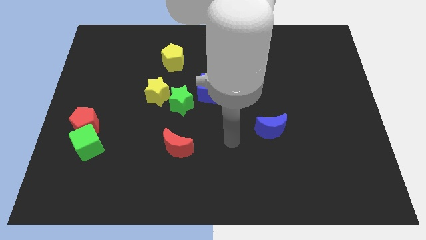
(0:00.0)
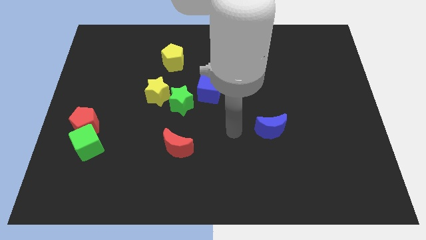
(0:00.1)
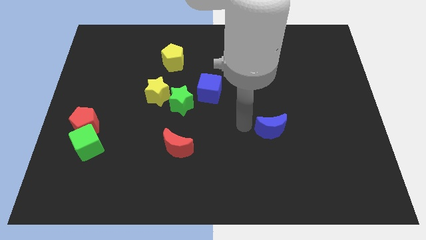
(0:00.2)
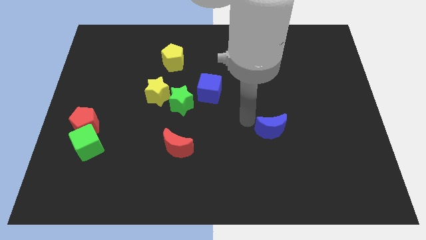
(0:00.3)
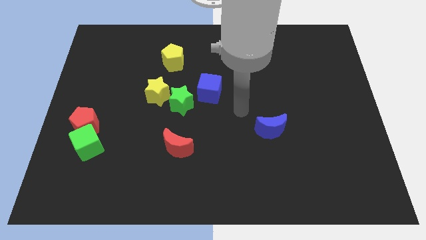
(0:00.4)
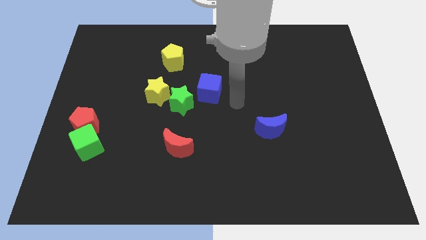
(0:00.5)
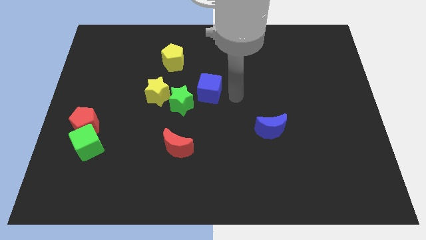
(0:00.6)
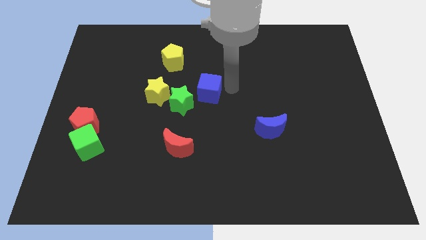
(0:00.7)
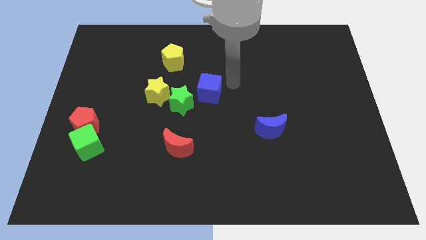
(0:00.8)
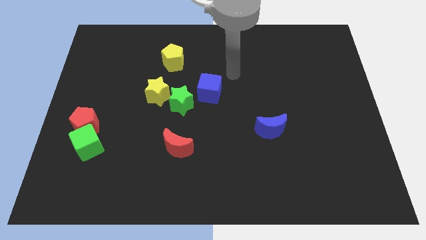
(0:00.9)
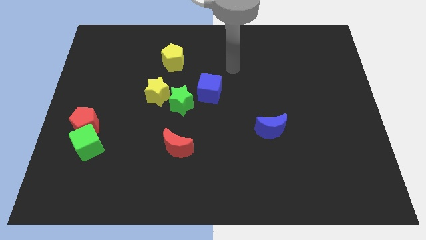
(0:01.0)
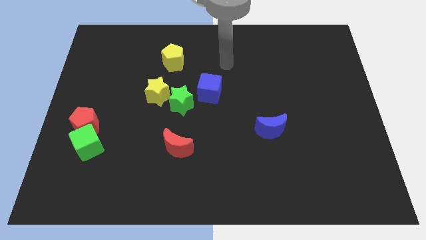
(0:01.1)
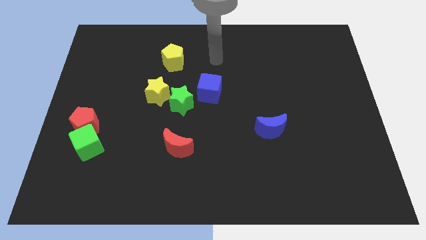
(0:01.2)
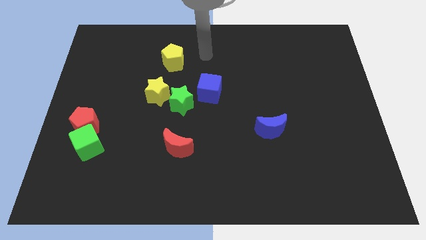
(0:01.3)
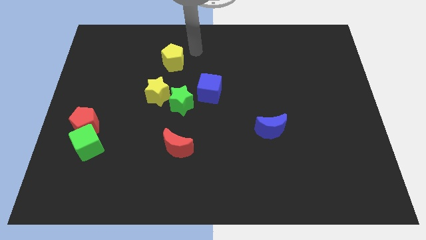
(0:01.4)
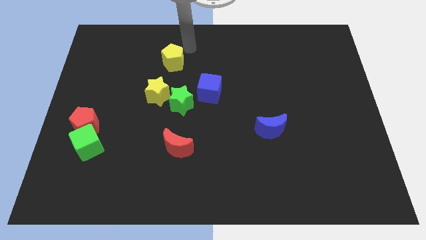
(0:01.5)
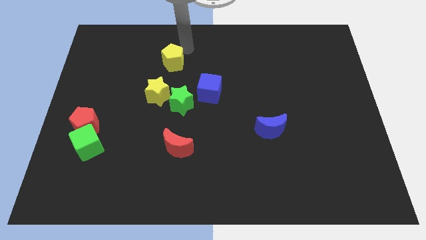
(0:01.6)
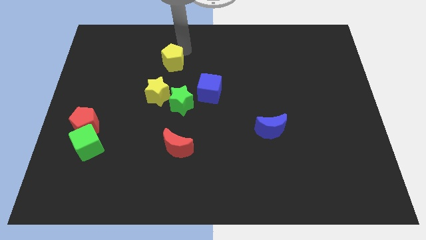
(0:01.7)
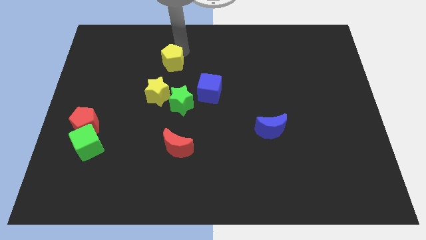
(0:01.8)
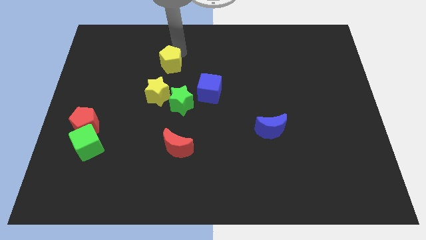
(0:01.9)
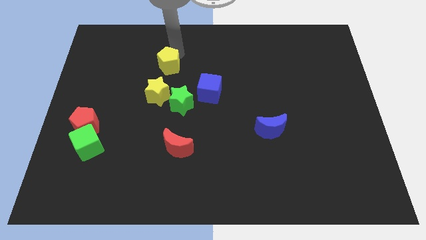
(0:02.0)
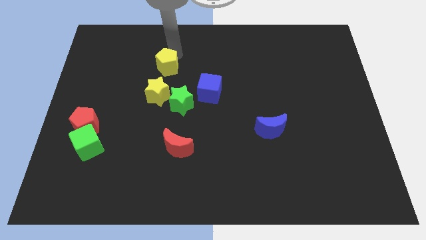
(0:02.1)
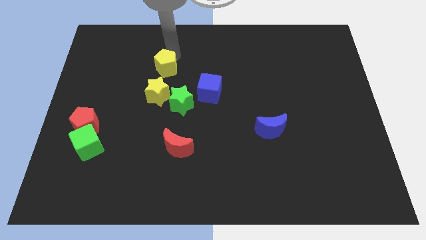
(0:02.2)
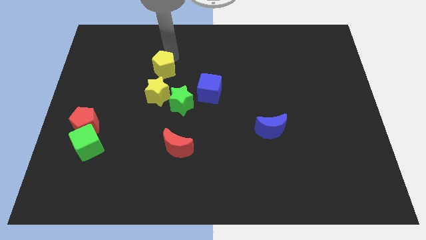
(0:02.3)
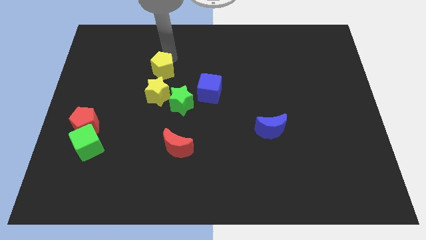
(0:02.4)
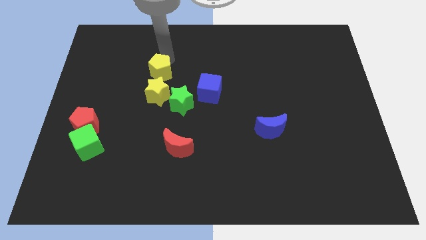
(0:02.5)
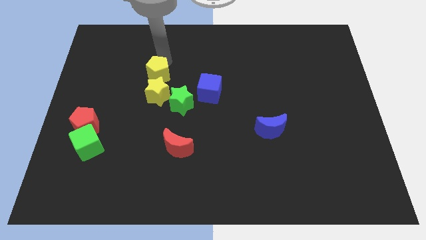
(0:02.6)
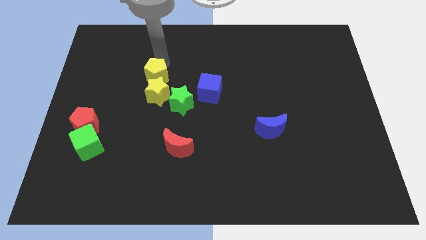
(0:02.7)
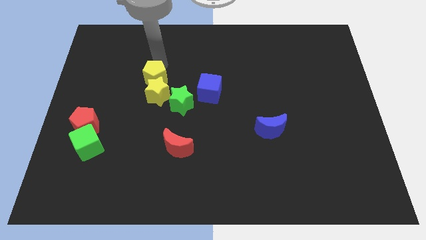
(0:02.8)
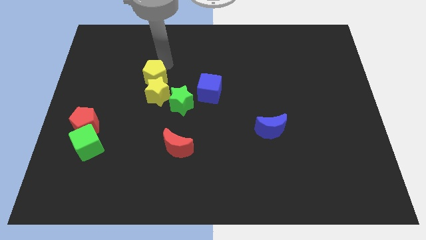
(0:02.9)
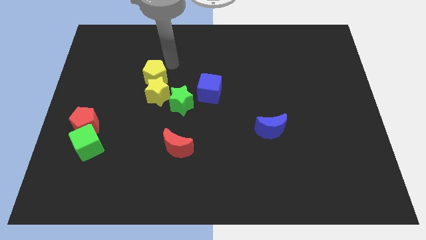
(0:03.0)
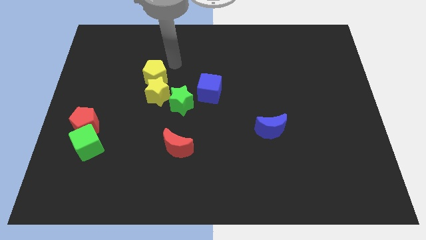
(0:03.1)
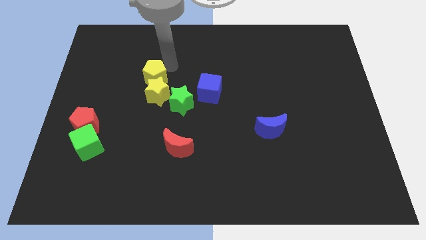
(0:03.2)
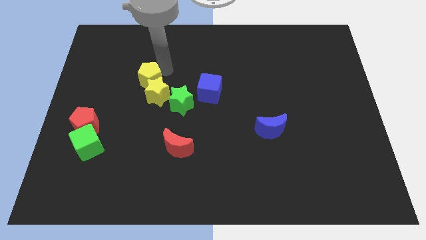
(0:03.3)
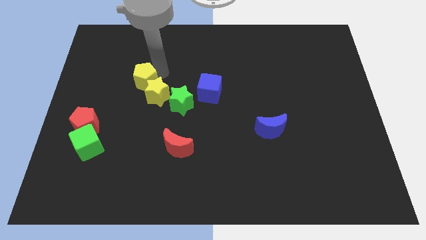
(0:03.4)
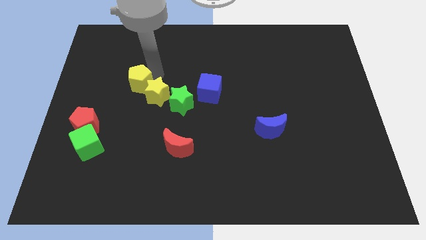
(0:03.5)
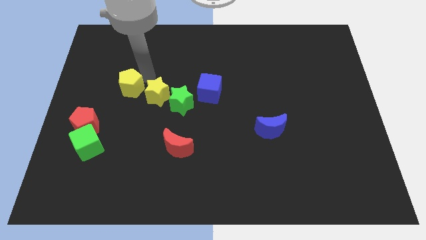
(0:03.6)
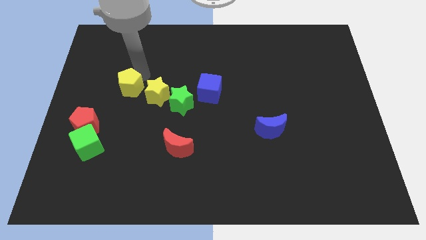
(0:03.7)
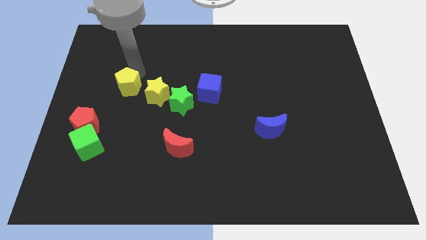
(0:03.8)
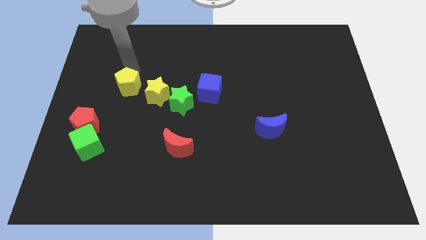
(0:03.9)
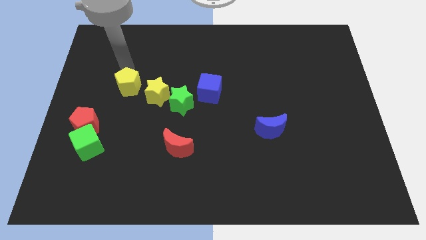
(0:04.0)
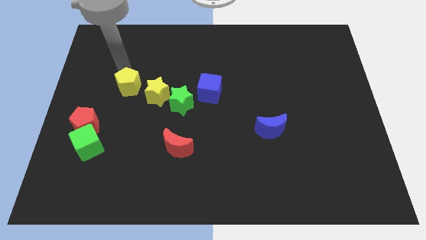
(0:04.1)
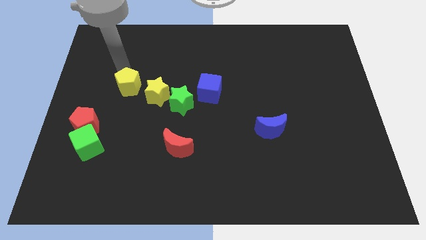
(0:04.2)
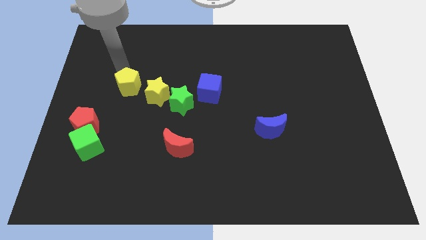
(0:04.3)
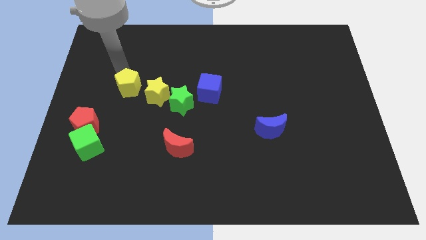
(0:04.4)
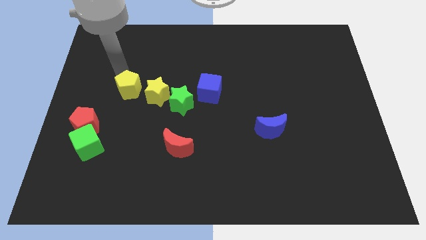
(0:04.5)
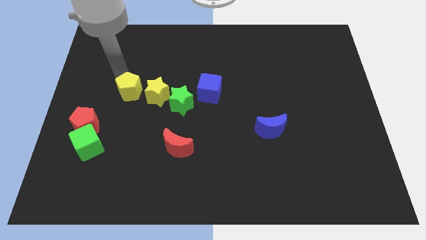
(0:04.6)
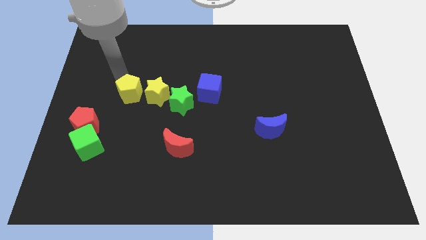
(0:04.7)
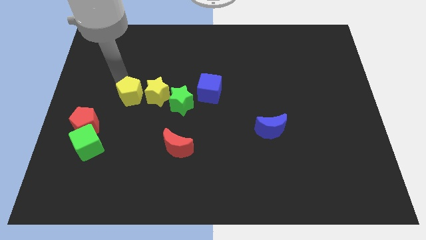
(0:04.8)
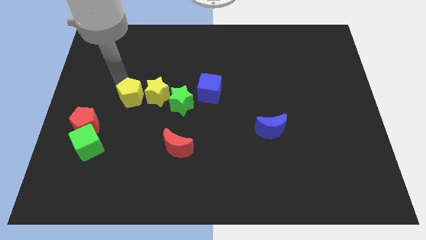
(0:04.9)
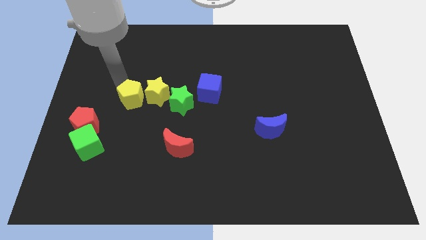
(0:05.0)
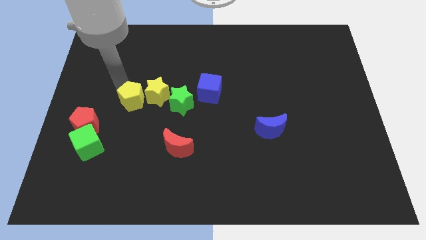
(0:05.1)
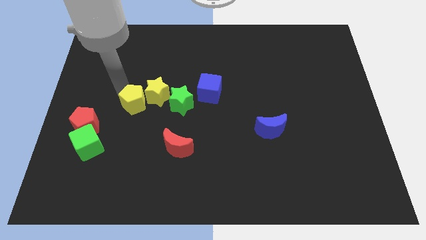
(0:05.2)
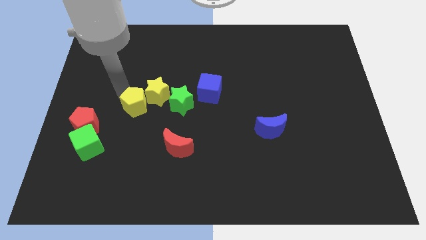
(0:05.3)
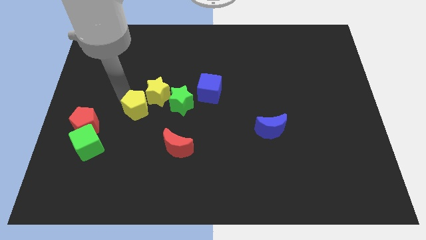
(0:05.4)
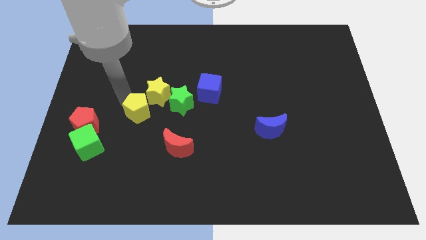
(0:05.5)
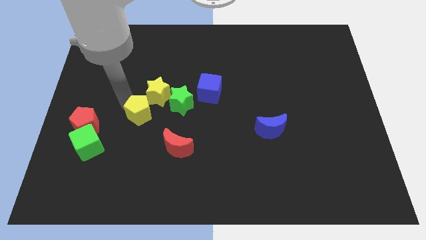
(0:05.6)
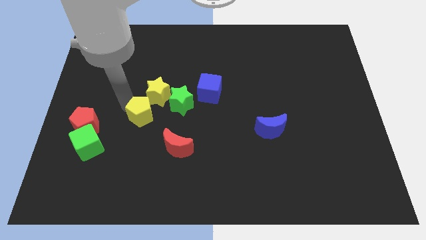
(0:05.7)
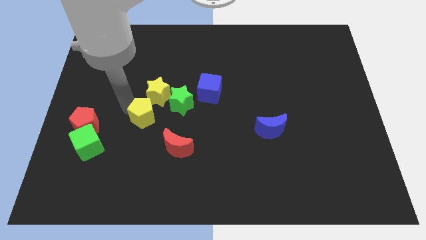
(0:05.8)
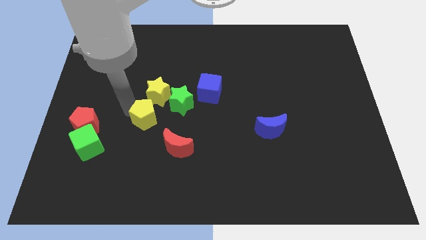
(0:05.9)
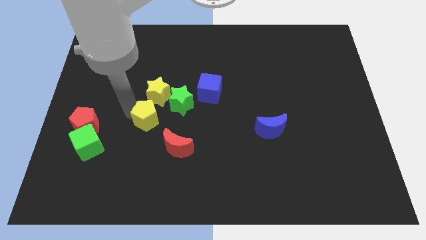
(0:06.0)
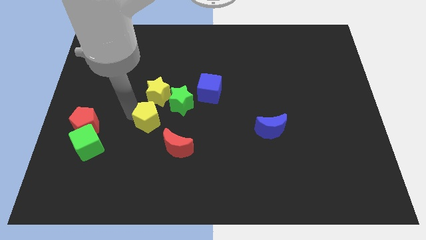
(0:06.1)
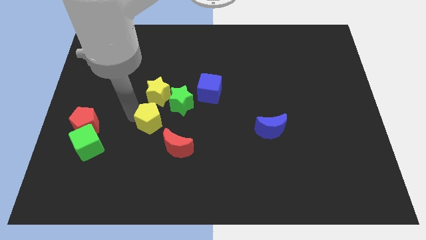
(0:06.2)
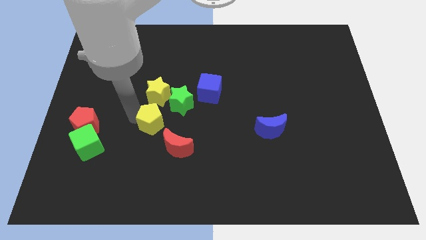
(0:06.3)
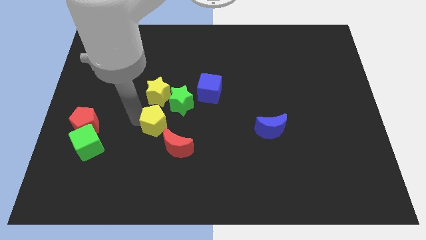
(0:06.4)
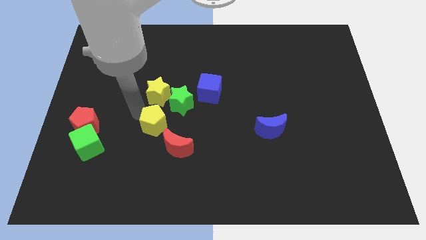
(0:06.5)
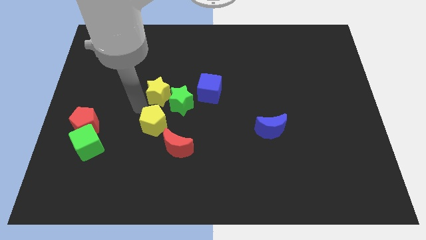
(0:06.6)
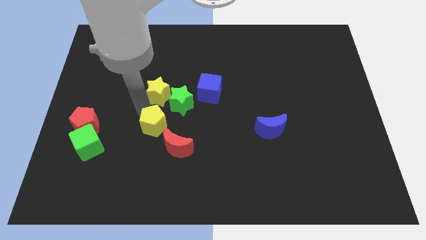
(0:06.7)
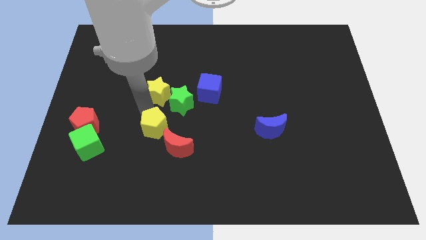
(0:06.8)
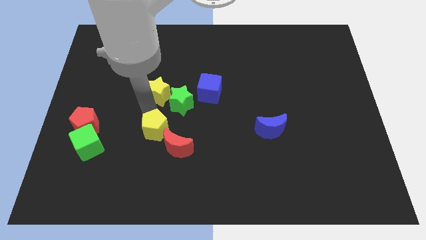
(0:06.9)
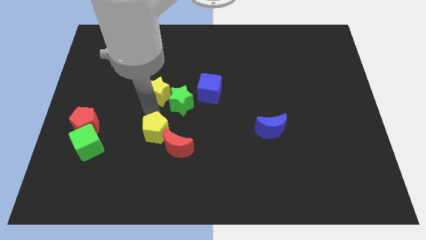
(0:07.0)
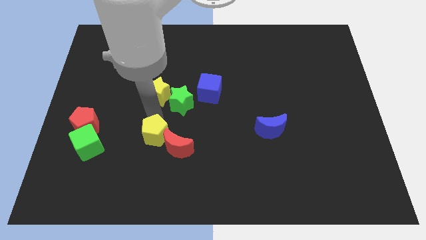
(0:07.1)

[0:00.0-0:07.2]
put the yellow pentagon next to the red moon

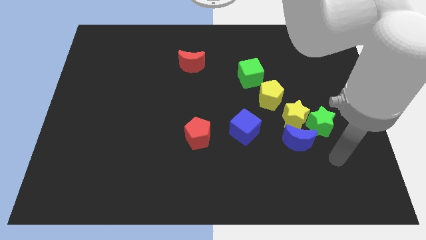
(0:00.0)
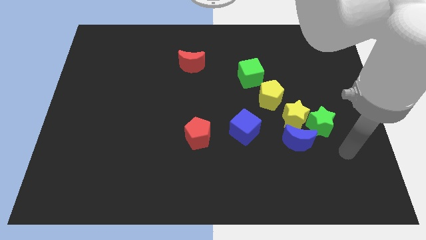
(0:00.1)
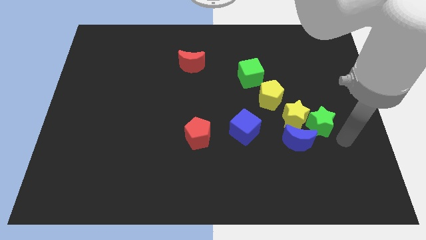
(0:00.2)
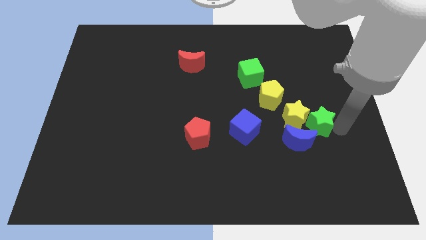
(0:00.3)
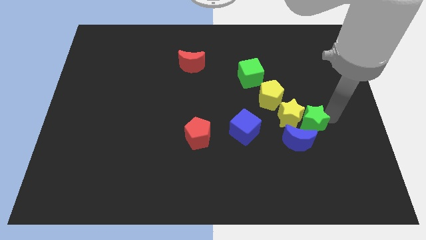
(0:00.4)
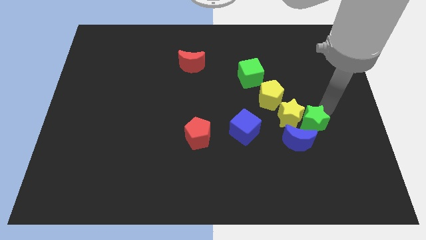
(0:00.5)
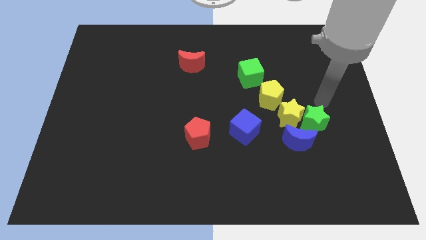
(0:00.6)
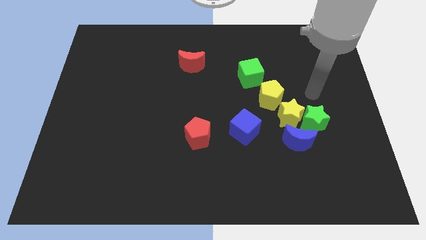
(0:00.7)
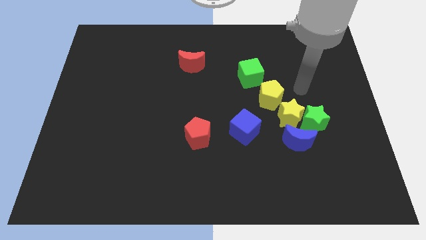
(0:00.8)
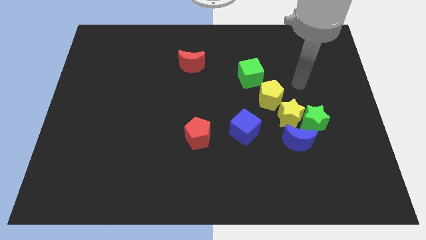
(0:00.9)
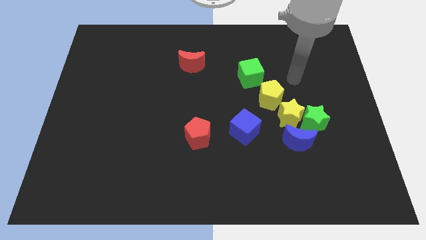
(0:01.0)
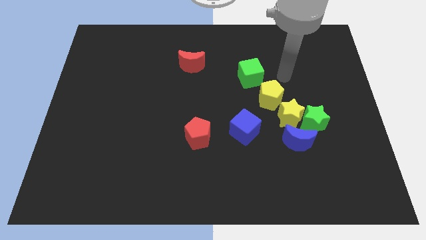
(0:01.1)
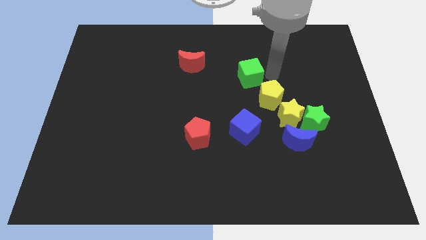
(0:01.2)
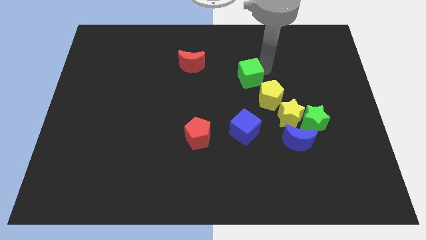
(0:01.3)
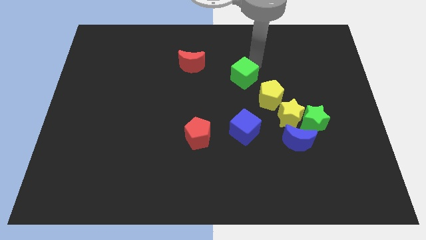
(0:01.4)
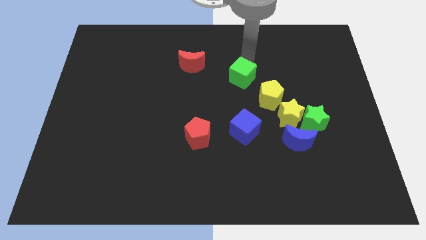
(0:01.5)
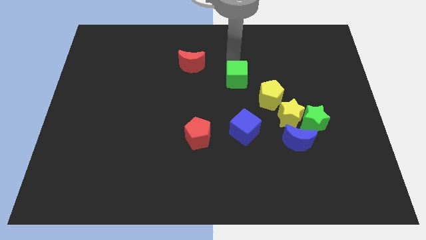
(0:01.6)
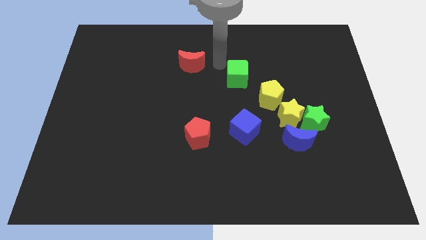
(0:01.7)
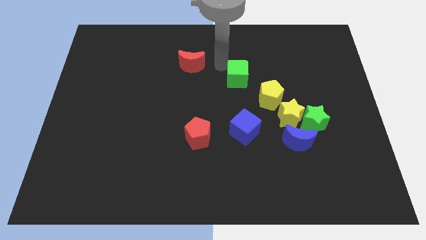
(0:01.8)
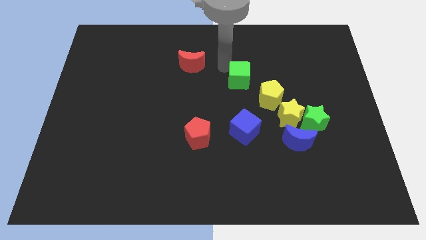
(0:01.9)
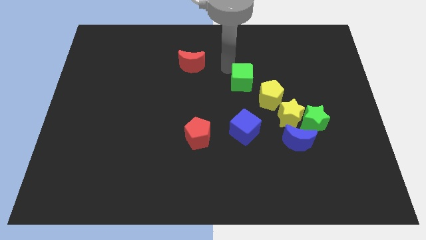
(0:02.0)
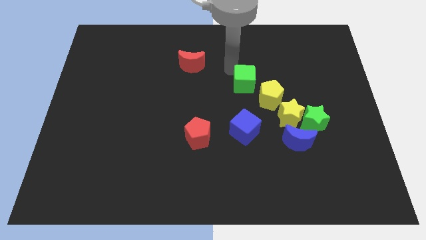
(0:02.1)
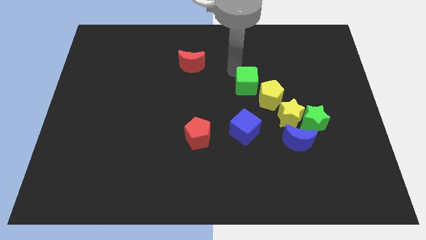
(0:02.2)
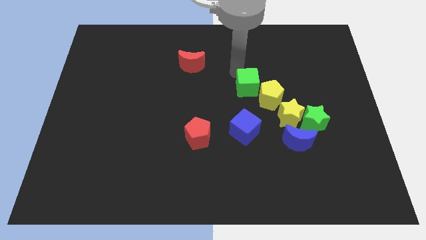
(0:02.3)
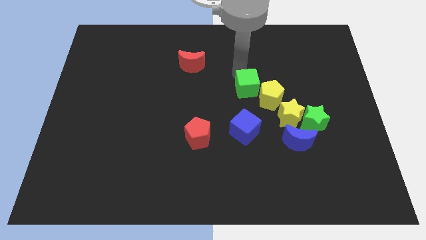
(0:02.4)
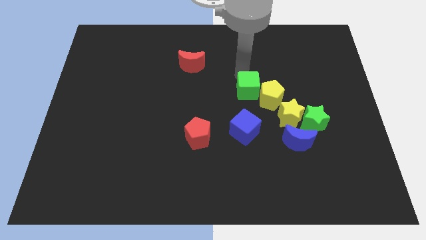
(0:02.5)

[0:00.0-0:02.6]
push the green cube towards the yellow pentagon
